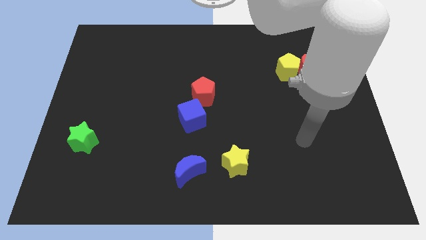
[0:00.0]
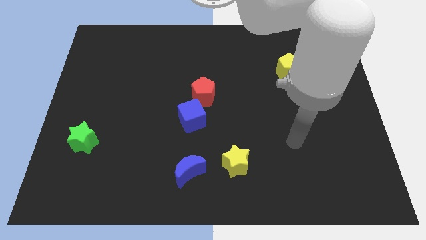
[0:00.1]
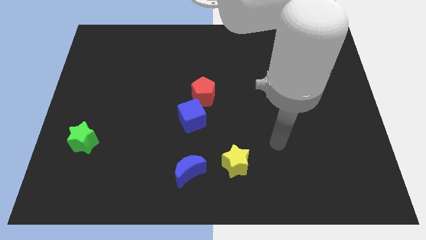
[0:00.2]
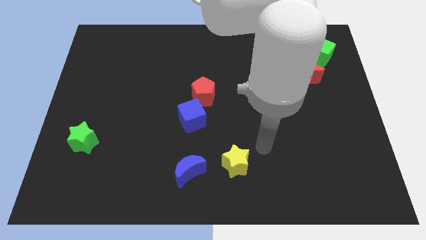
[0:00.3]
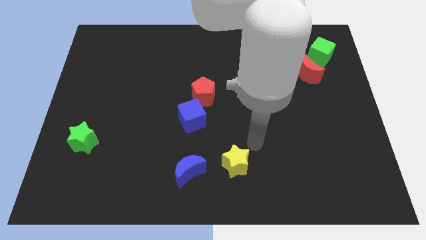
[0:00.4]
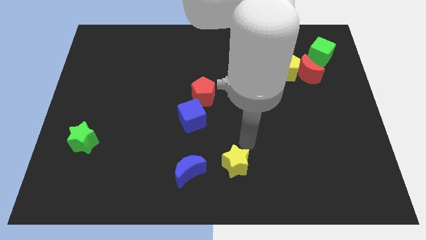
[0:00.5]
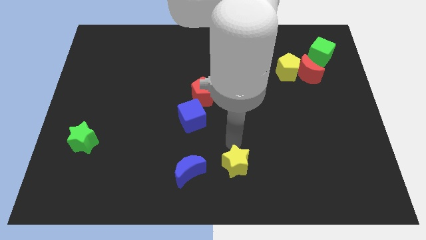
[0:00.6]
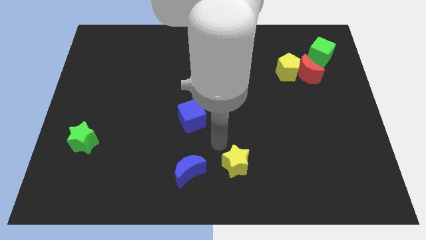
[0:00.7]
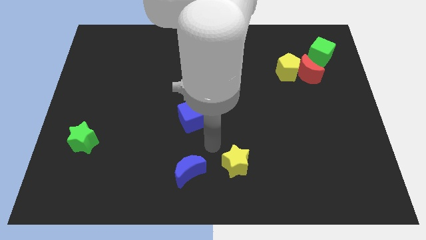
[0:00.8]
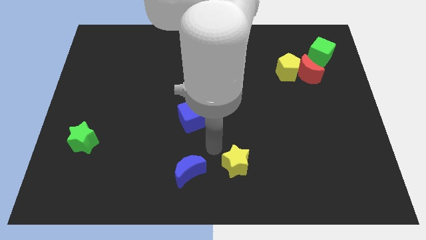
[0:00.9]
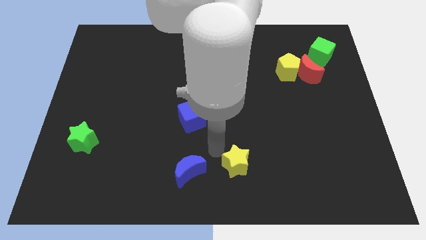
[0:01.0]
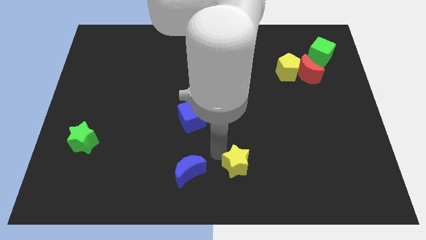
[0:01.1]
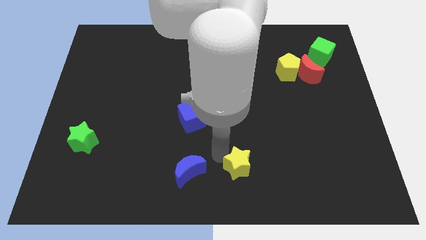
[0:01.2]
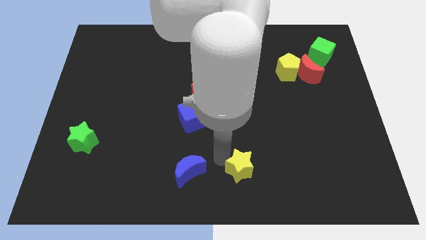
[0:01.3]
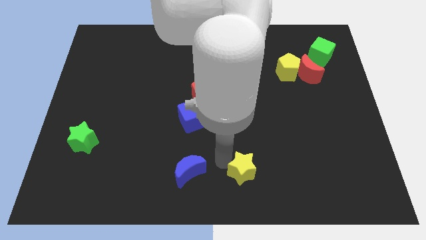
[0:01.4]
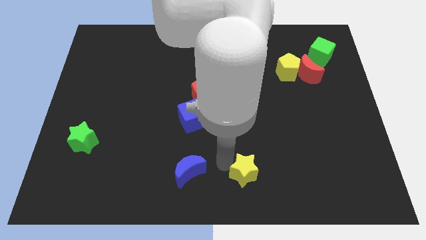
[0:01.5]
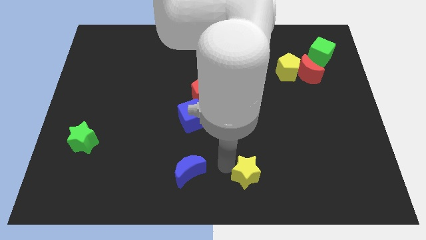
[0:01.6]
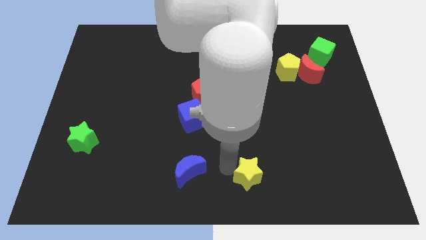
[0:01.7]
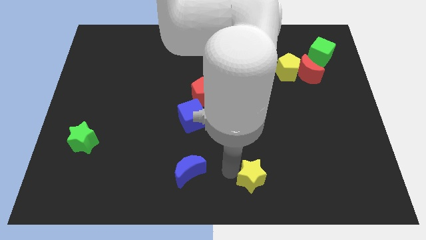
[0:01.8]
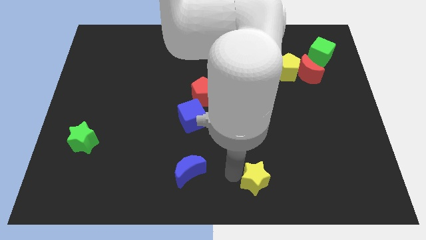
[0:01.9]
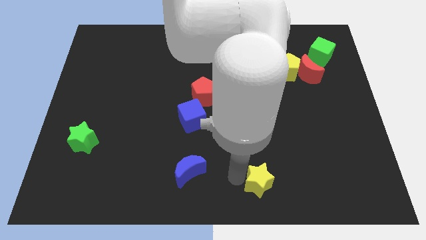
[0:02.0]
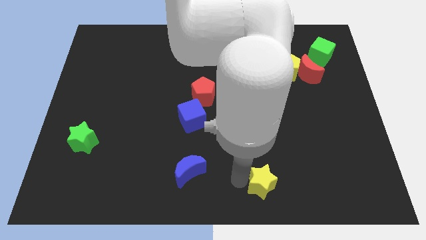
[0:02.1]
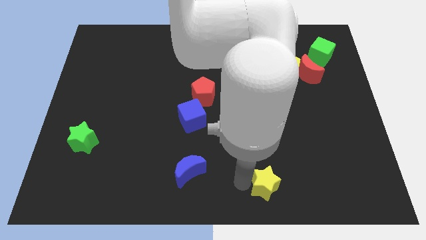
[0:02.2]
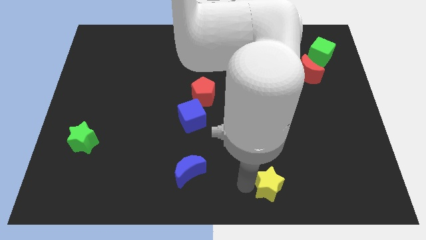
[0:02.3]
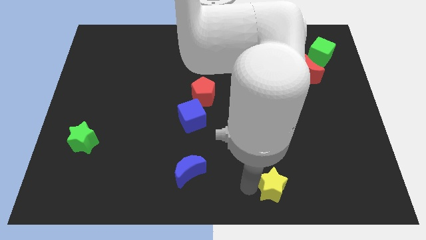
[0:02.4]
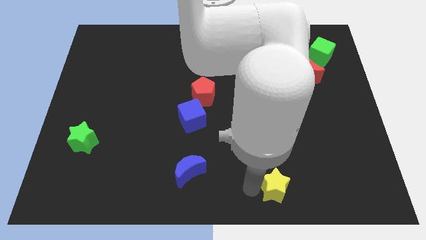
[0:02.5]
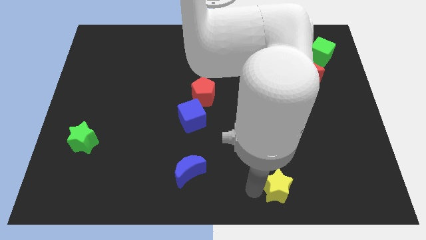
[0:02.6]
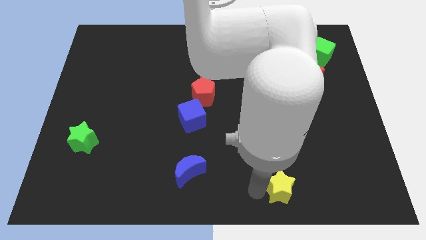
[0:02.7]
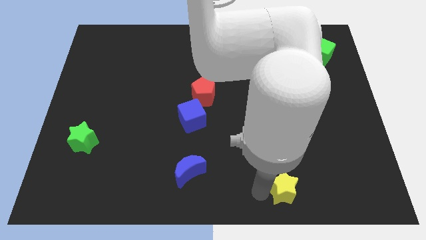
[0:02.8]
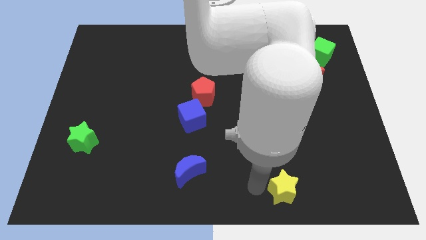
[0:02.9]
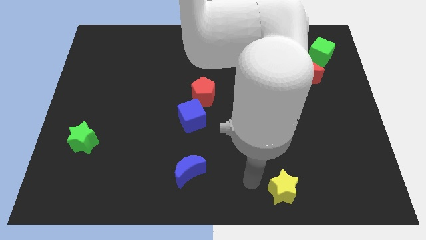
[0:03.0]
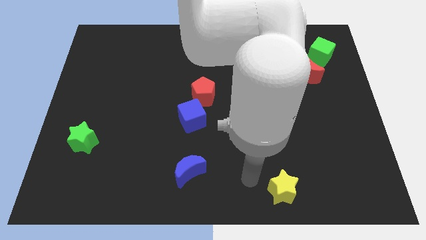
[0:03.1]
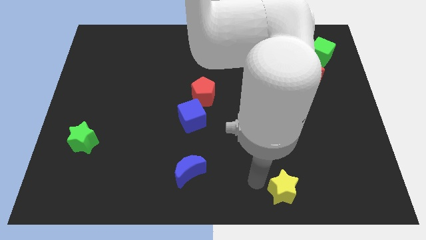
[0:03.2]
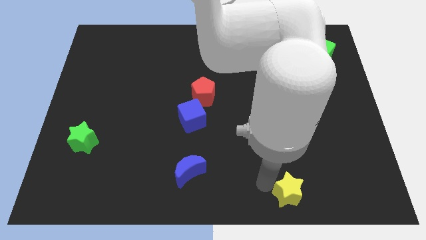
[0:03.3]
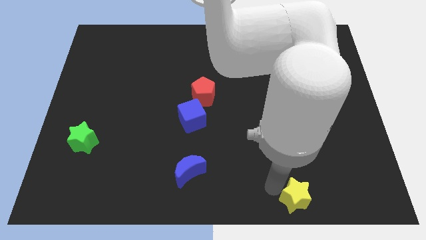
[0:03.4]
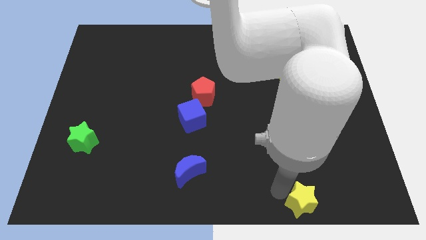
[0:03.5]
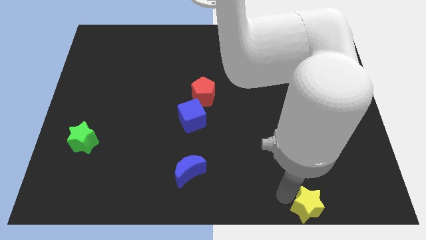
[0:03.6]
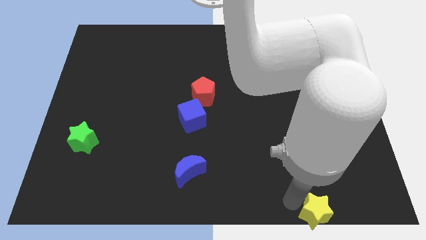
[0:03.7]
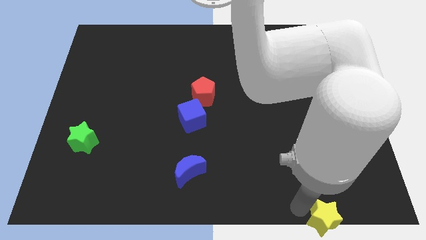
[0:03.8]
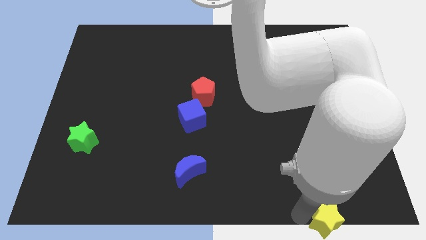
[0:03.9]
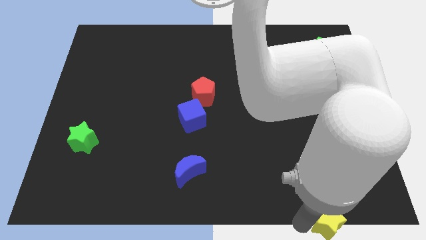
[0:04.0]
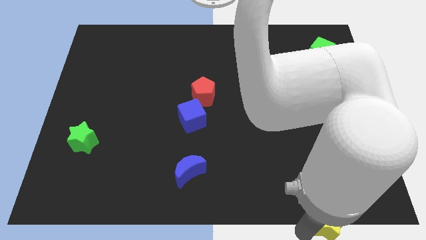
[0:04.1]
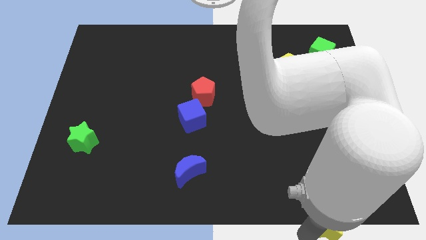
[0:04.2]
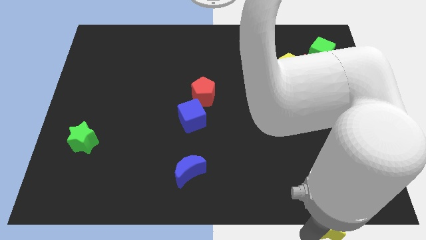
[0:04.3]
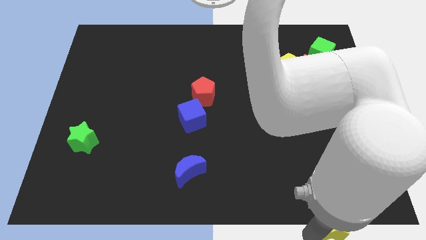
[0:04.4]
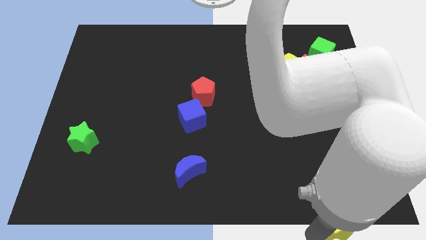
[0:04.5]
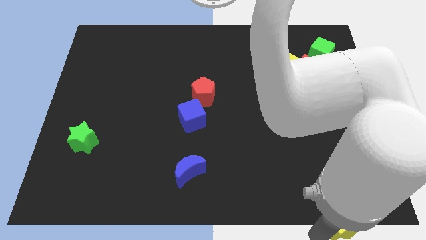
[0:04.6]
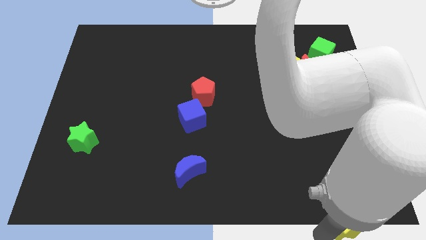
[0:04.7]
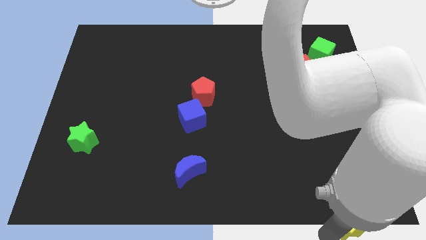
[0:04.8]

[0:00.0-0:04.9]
push the yellow star to the lower right corner

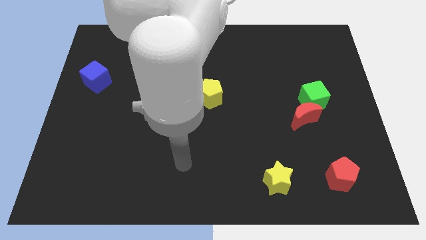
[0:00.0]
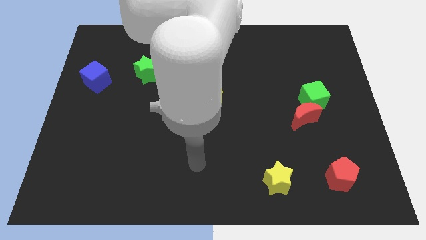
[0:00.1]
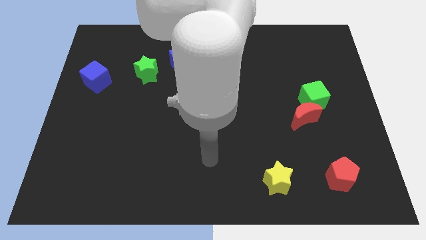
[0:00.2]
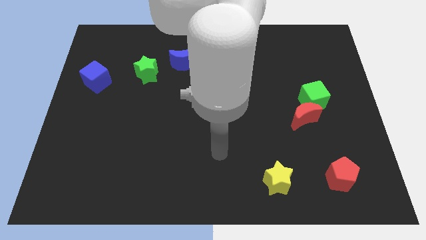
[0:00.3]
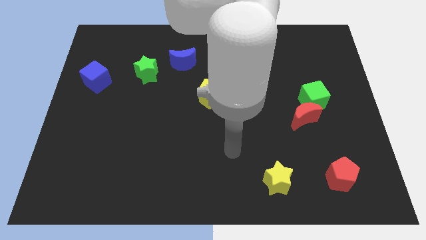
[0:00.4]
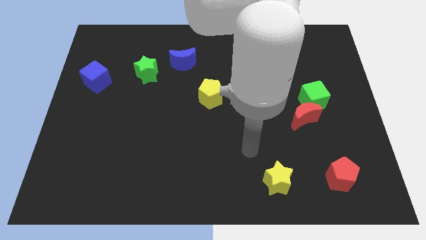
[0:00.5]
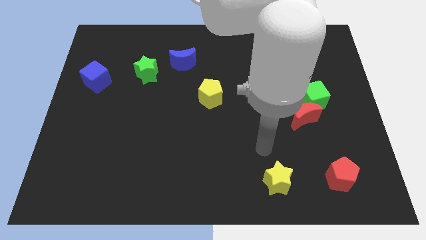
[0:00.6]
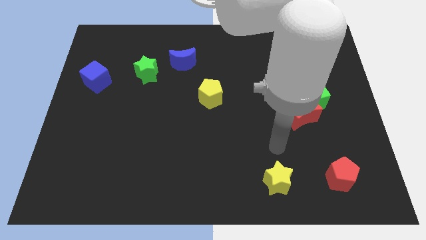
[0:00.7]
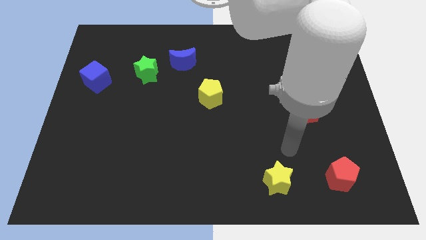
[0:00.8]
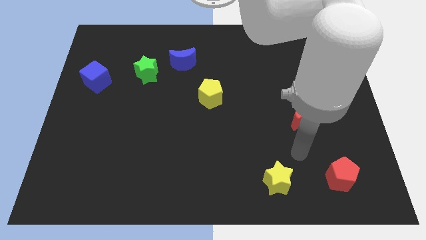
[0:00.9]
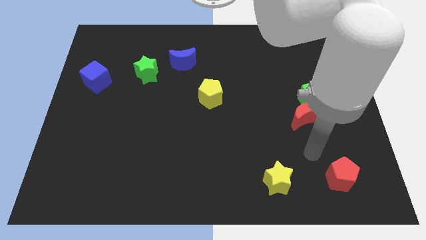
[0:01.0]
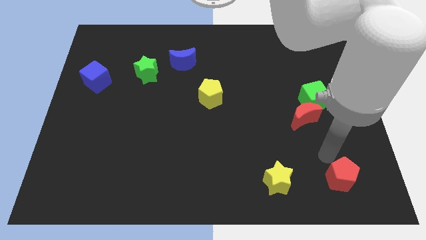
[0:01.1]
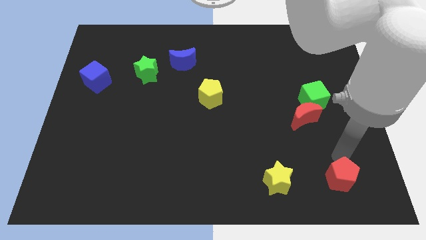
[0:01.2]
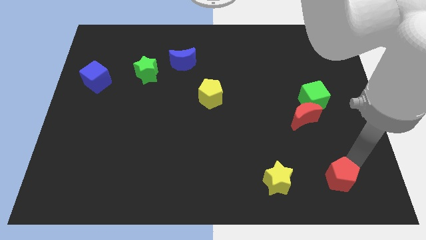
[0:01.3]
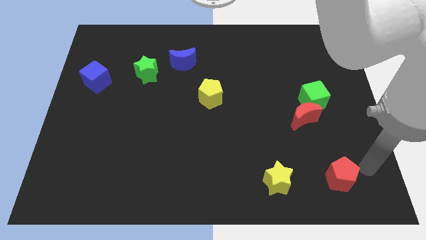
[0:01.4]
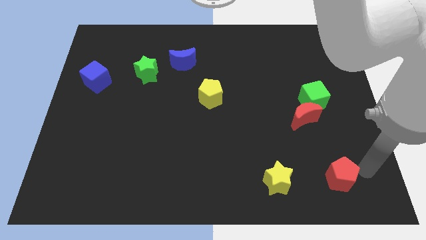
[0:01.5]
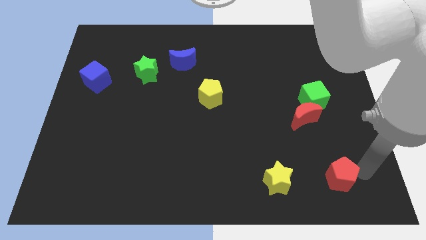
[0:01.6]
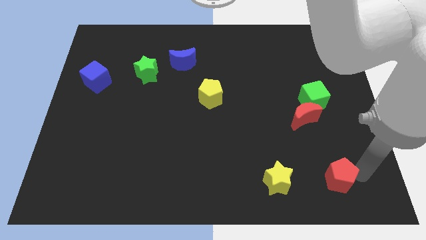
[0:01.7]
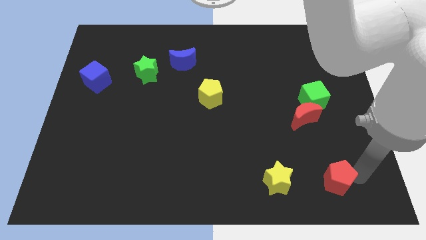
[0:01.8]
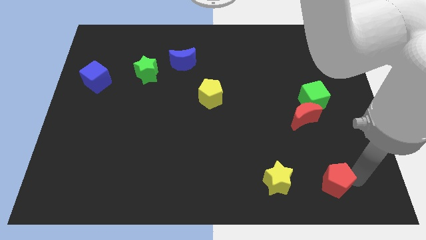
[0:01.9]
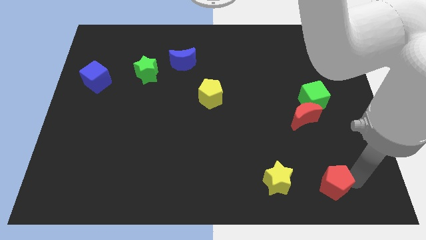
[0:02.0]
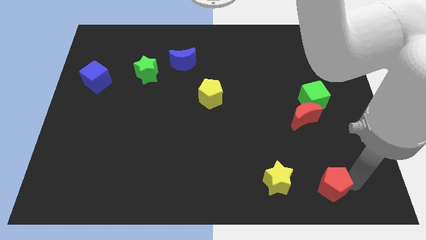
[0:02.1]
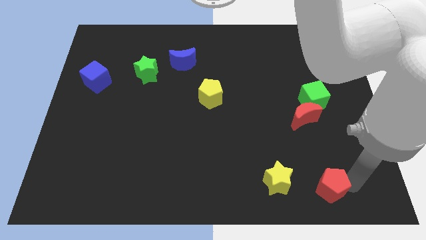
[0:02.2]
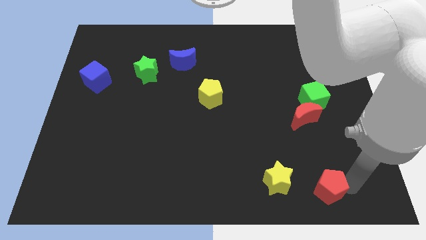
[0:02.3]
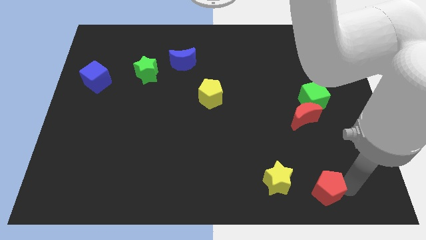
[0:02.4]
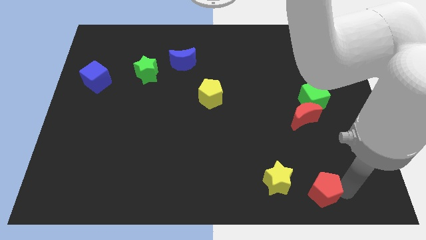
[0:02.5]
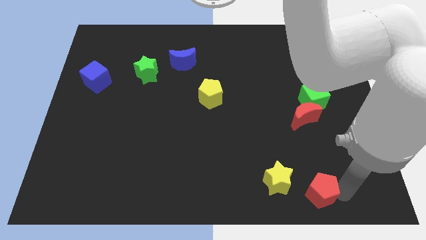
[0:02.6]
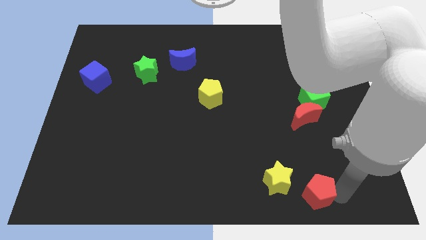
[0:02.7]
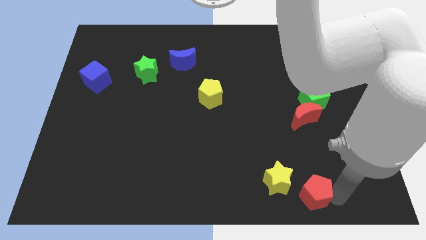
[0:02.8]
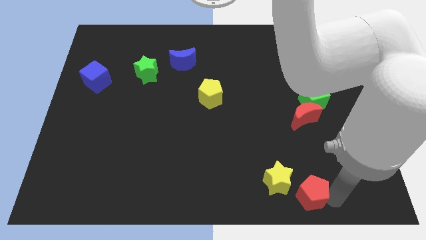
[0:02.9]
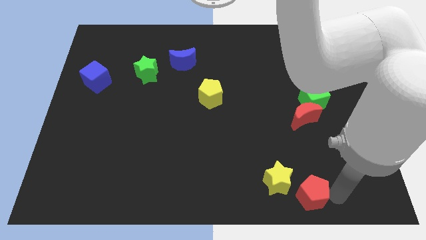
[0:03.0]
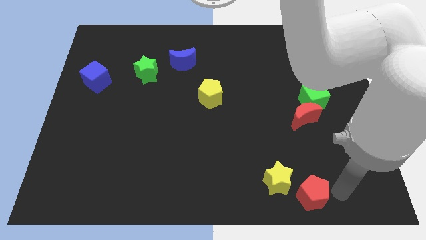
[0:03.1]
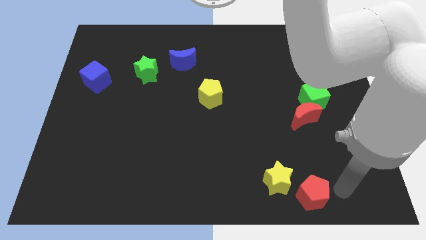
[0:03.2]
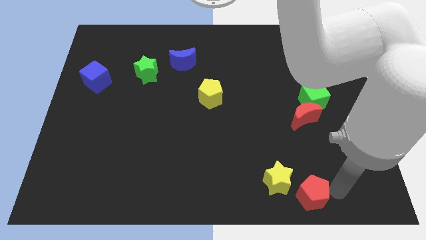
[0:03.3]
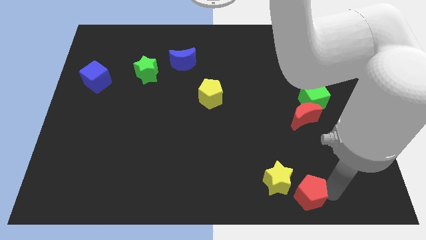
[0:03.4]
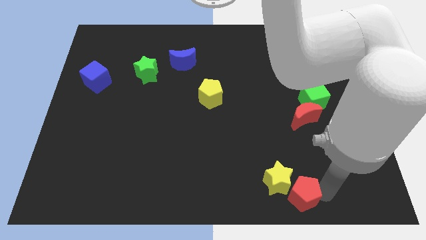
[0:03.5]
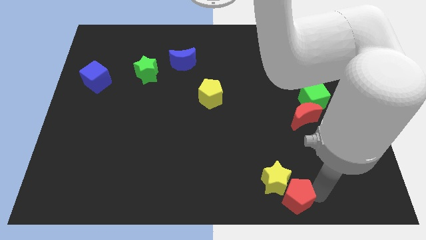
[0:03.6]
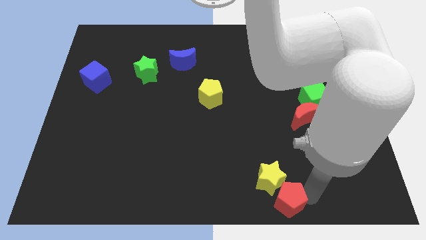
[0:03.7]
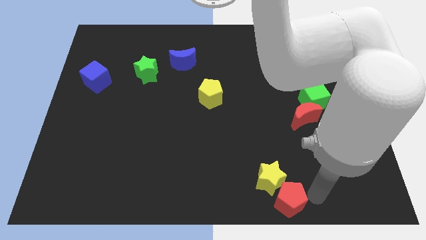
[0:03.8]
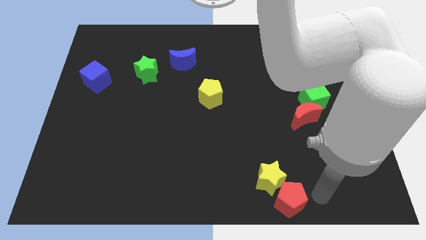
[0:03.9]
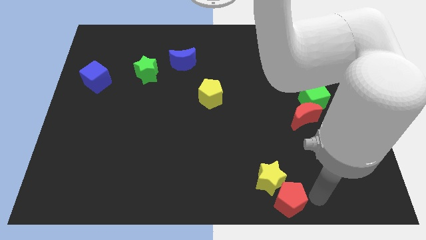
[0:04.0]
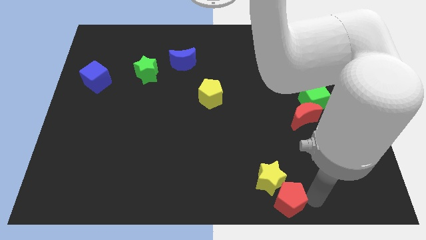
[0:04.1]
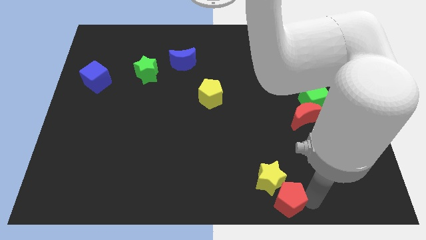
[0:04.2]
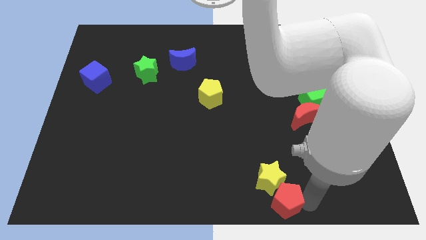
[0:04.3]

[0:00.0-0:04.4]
push the red pentagon to the bottom
